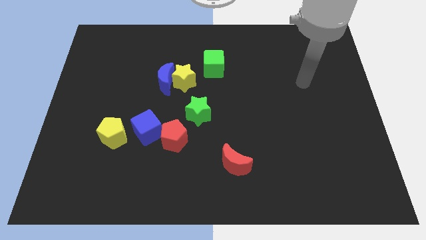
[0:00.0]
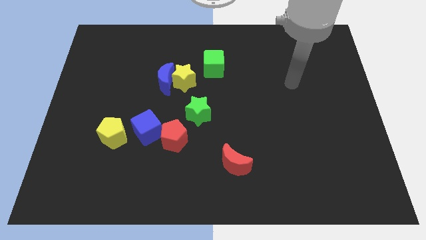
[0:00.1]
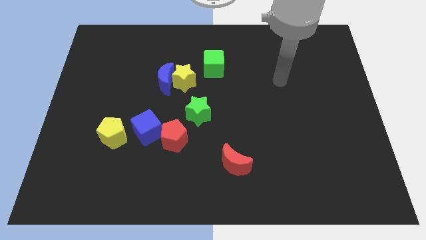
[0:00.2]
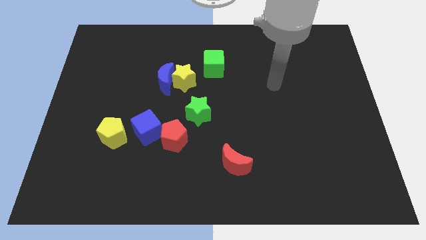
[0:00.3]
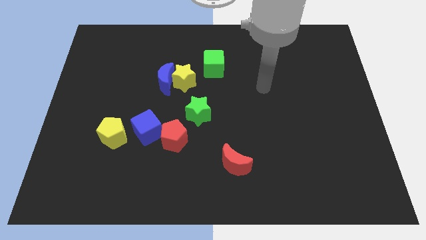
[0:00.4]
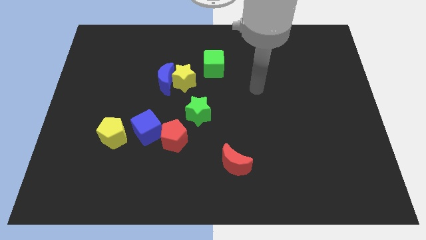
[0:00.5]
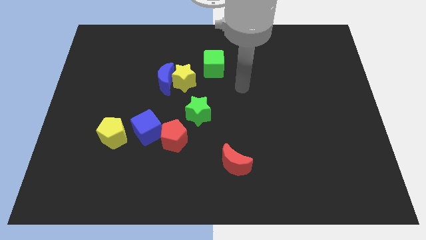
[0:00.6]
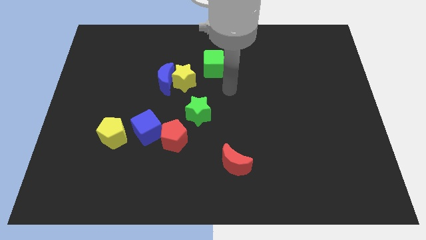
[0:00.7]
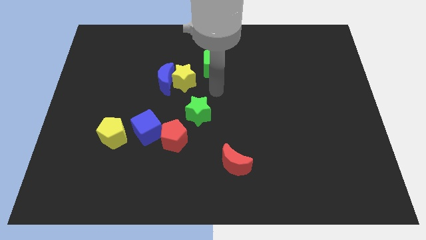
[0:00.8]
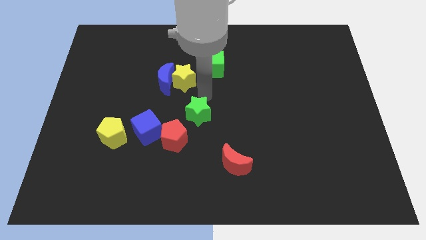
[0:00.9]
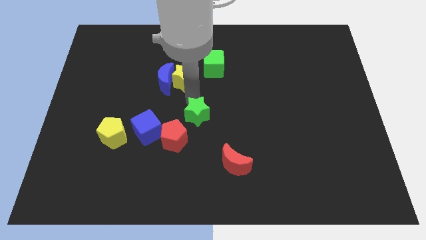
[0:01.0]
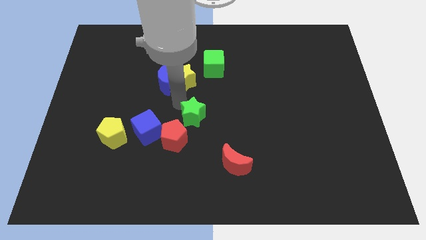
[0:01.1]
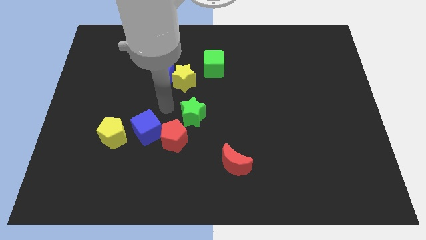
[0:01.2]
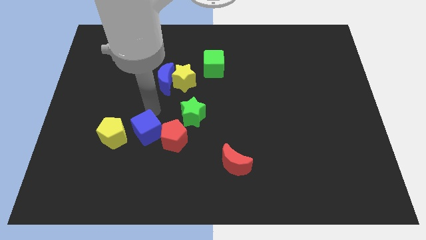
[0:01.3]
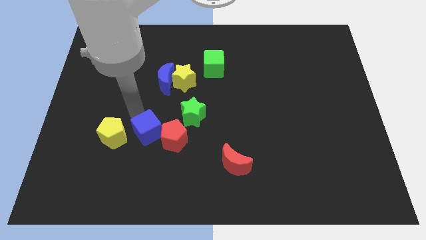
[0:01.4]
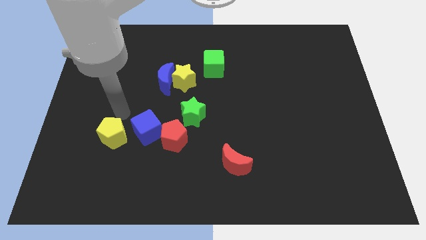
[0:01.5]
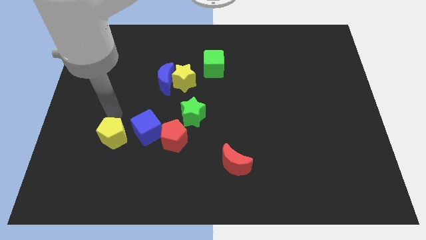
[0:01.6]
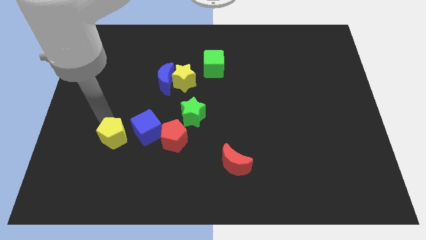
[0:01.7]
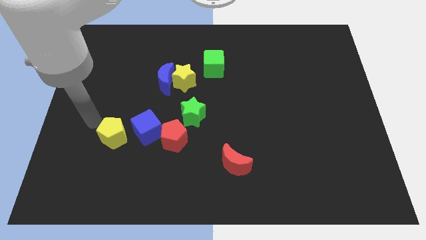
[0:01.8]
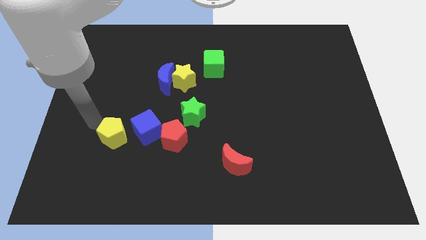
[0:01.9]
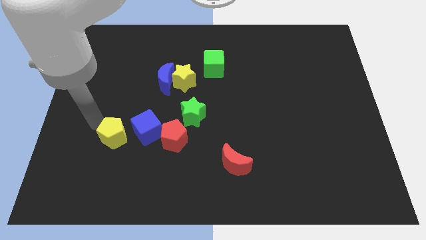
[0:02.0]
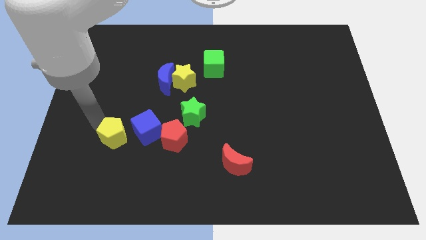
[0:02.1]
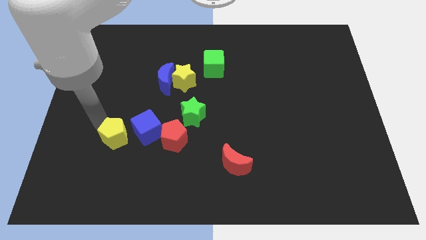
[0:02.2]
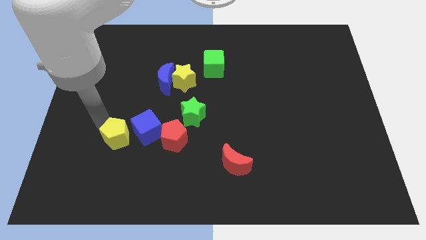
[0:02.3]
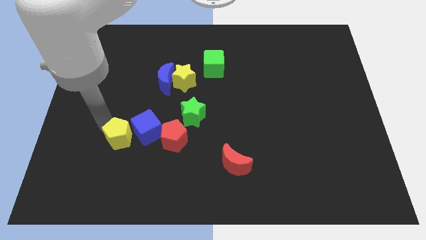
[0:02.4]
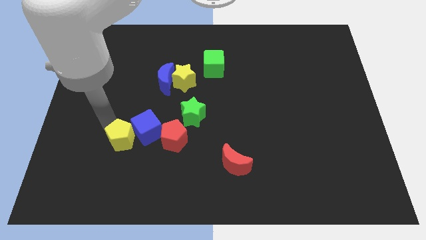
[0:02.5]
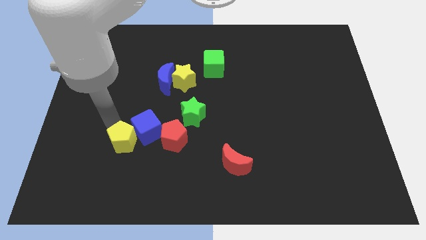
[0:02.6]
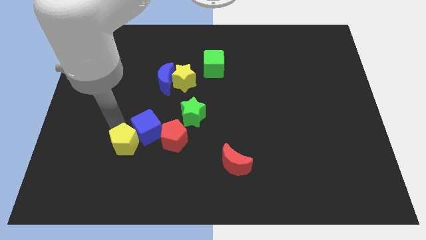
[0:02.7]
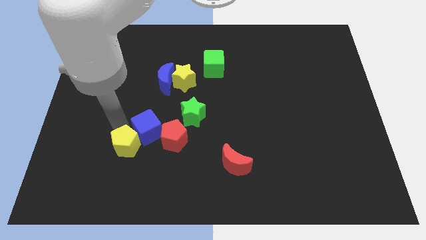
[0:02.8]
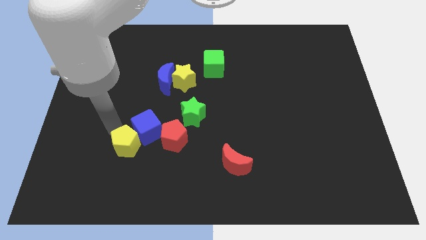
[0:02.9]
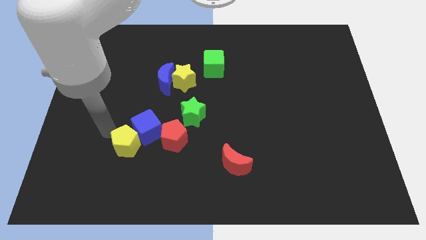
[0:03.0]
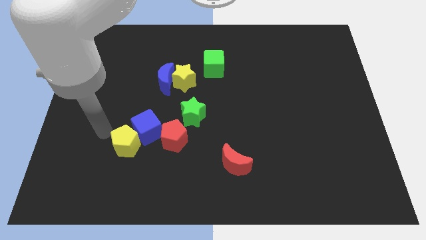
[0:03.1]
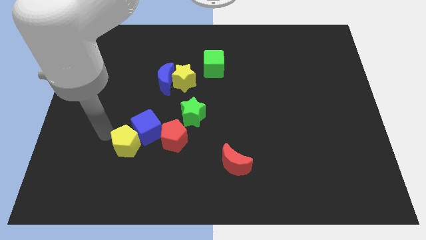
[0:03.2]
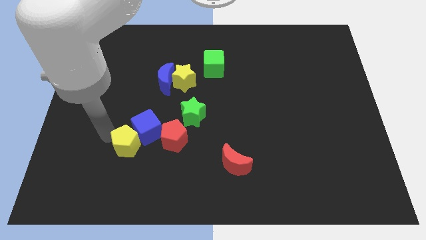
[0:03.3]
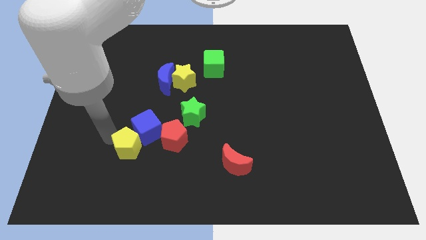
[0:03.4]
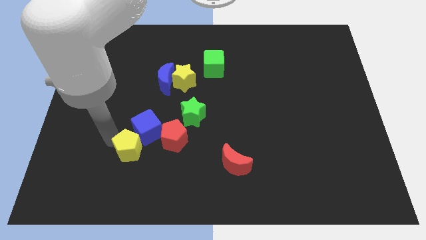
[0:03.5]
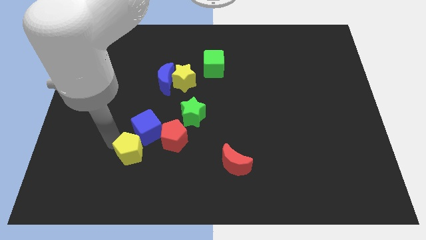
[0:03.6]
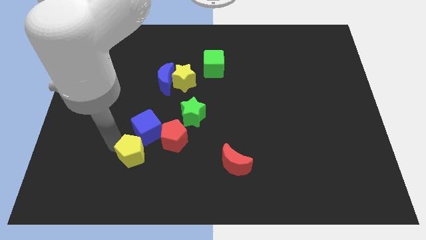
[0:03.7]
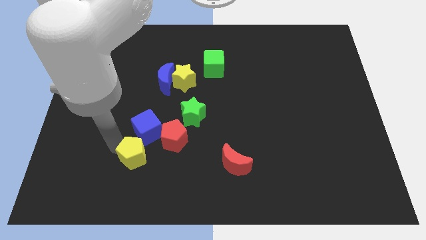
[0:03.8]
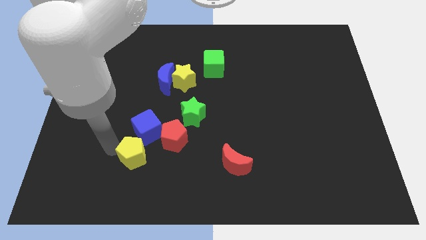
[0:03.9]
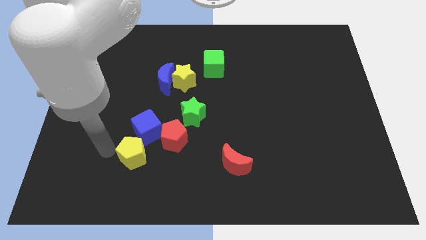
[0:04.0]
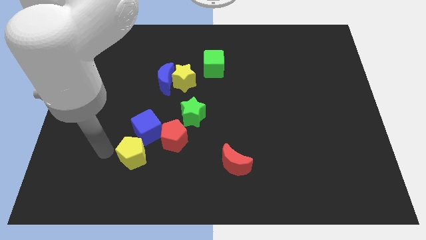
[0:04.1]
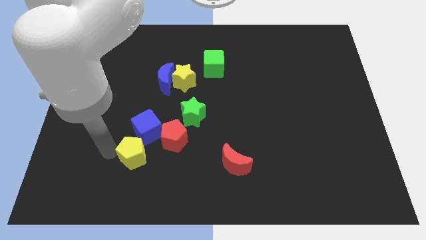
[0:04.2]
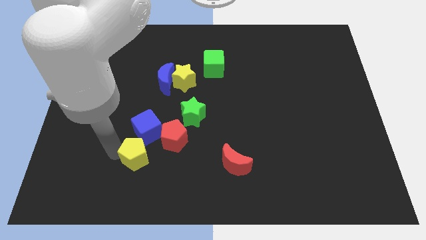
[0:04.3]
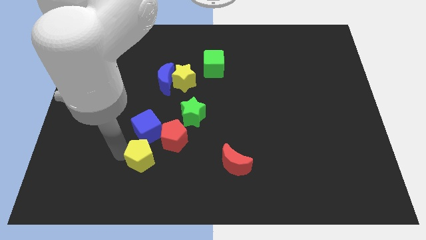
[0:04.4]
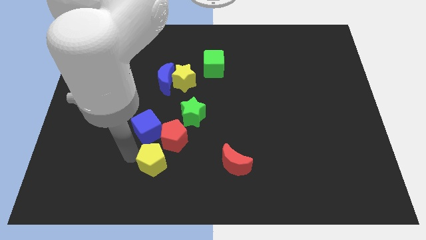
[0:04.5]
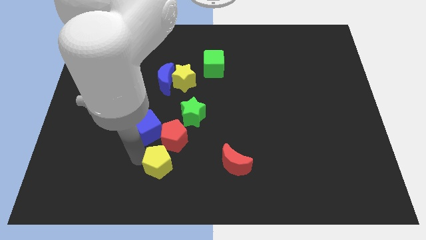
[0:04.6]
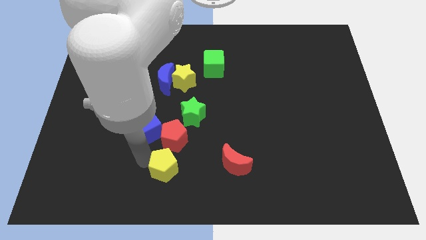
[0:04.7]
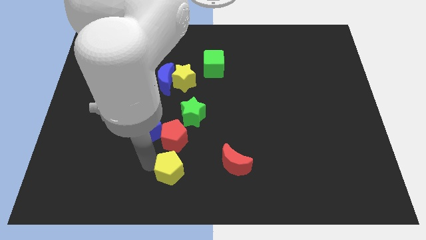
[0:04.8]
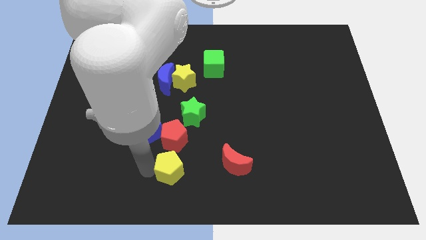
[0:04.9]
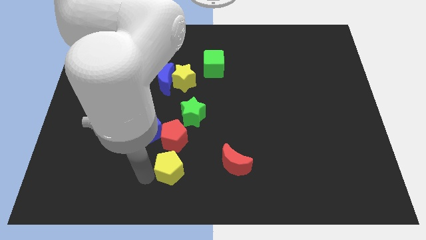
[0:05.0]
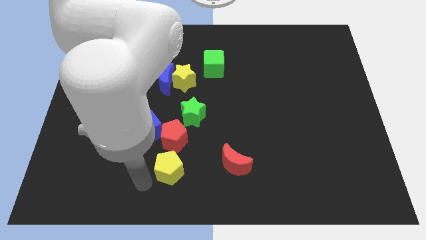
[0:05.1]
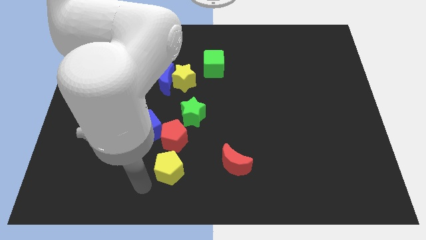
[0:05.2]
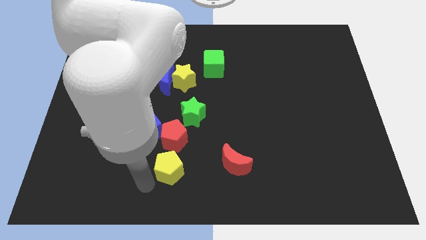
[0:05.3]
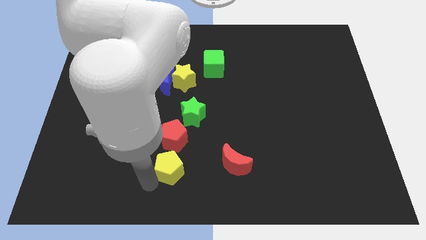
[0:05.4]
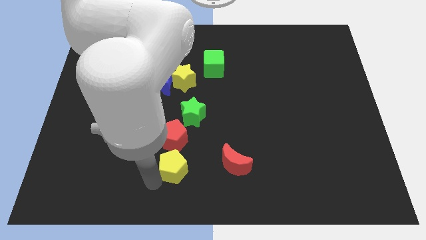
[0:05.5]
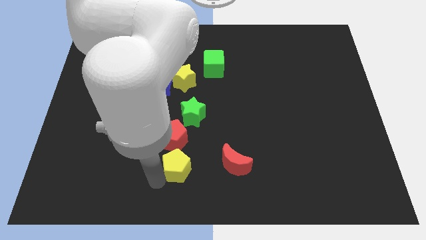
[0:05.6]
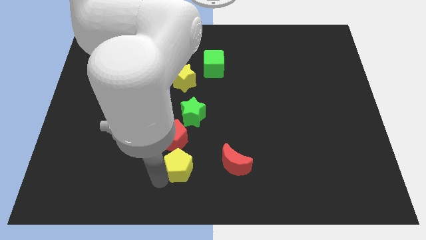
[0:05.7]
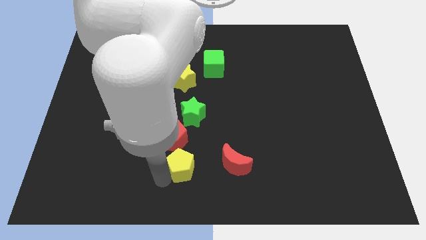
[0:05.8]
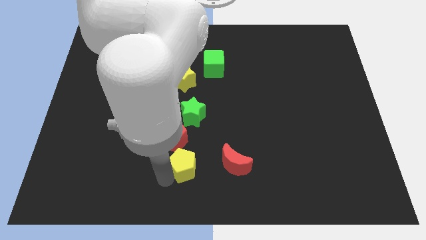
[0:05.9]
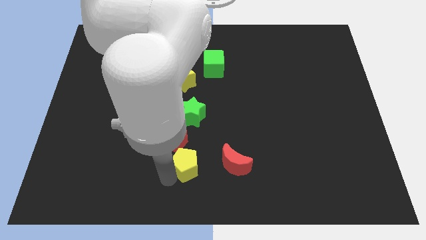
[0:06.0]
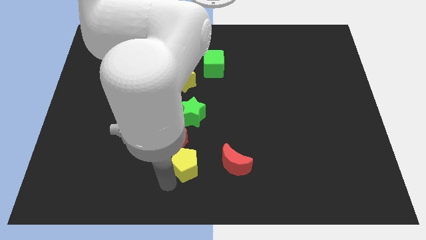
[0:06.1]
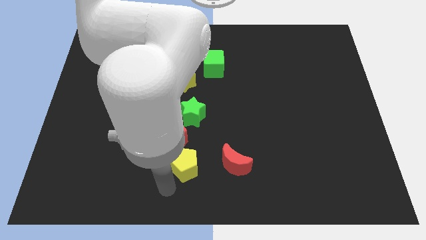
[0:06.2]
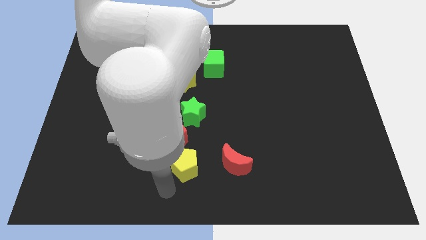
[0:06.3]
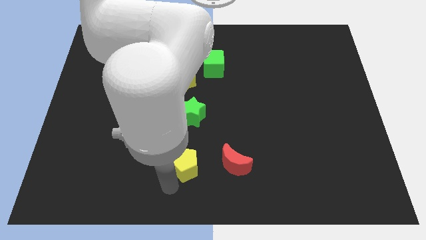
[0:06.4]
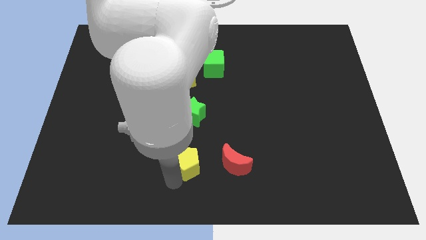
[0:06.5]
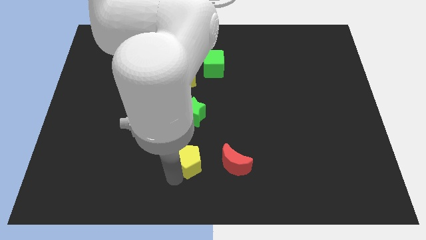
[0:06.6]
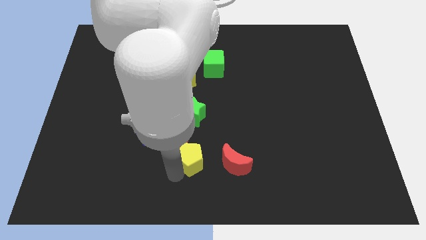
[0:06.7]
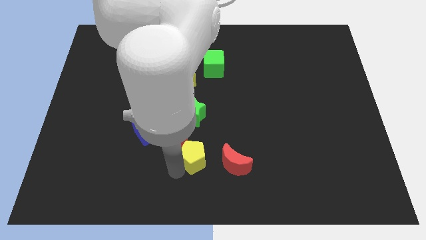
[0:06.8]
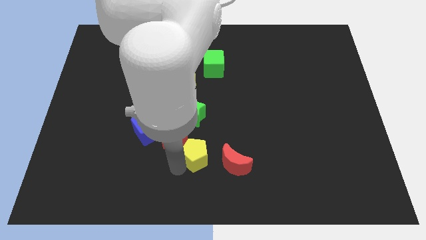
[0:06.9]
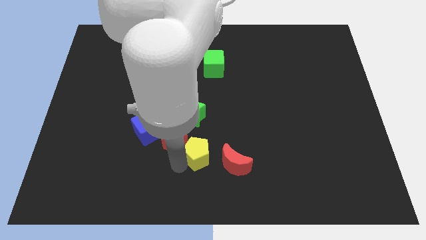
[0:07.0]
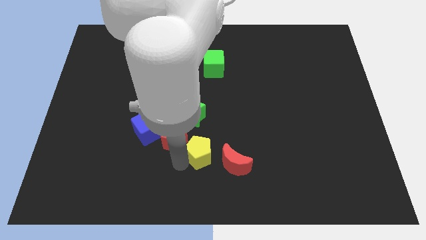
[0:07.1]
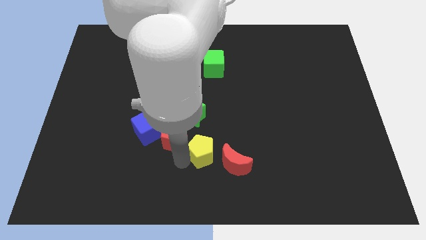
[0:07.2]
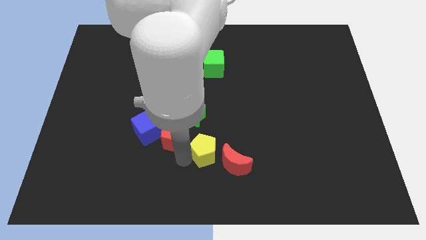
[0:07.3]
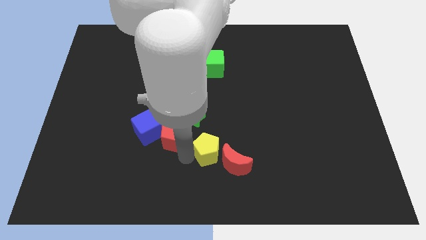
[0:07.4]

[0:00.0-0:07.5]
slide the yellow pentagon right
